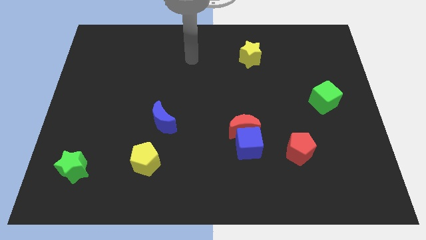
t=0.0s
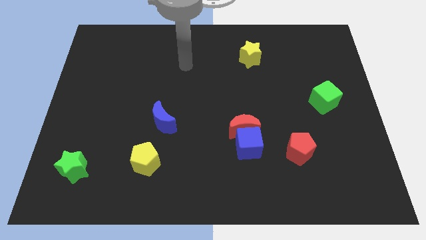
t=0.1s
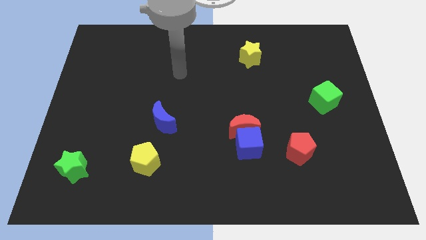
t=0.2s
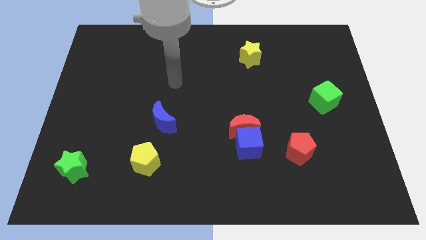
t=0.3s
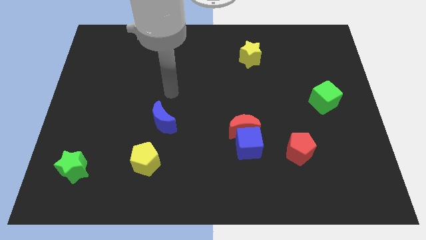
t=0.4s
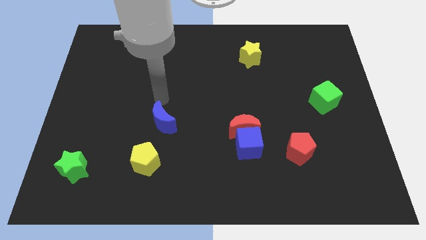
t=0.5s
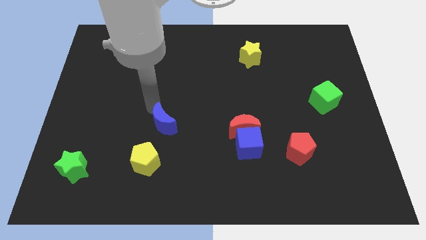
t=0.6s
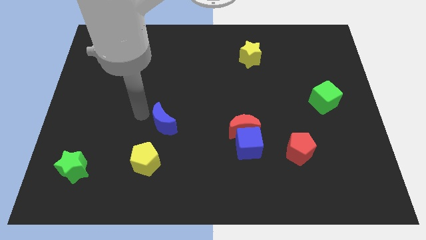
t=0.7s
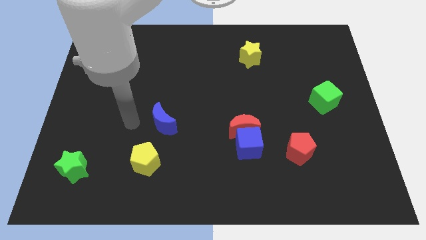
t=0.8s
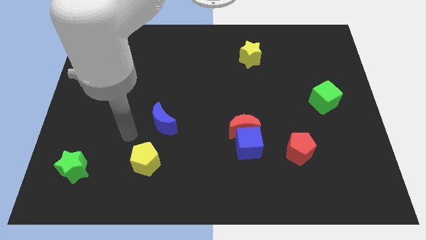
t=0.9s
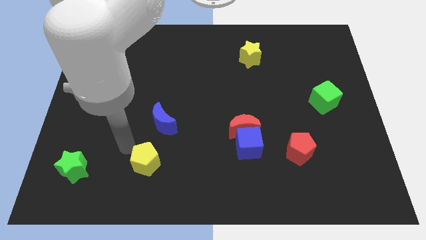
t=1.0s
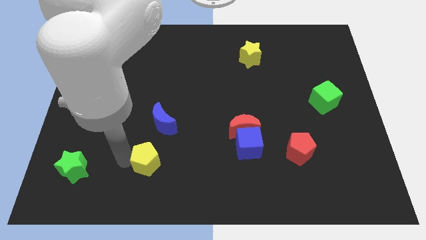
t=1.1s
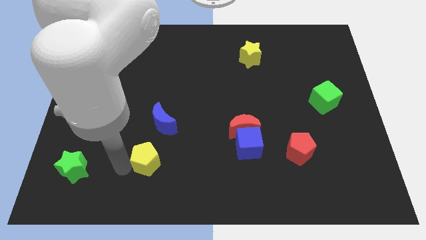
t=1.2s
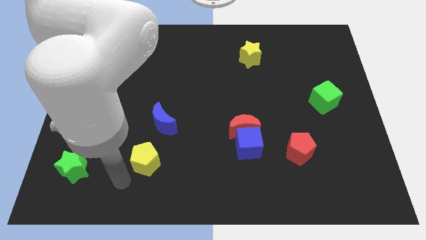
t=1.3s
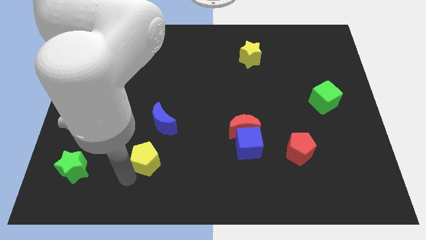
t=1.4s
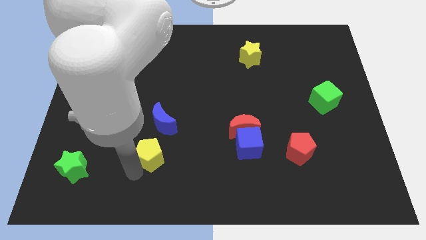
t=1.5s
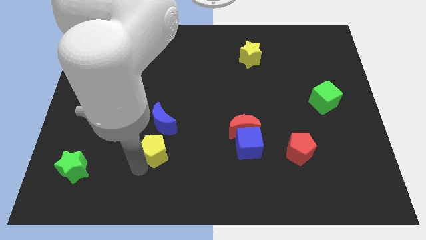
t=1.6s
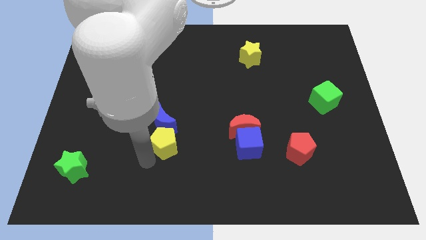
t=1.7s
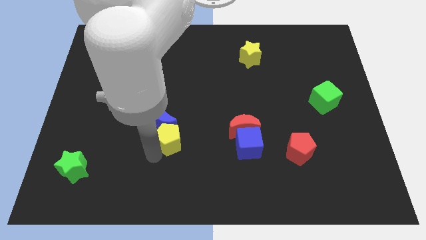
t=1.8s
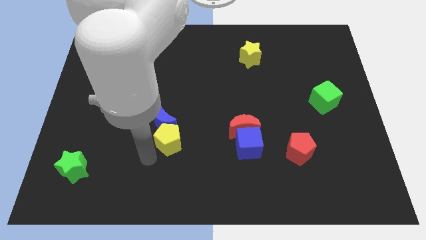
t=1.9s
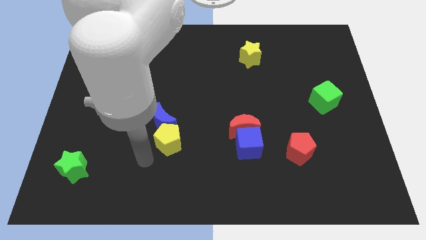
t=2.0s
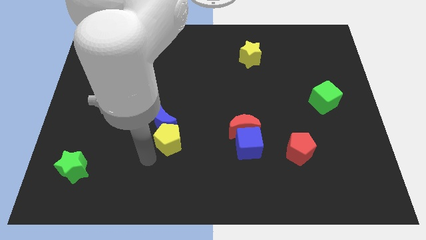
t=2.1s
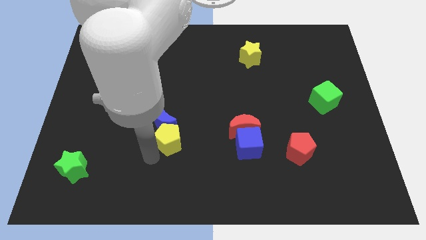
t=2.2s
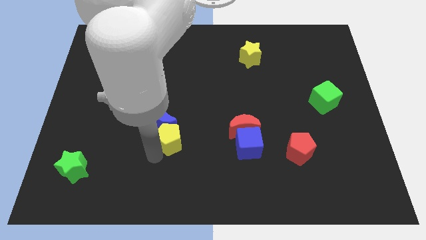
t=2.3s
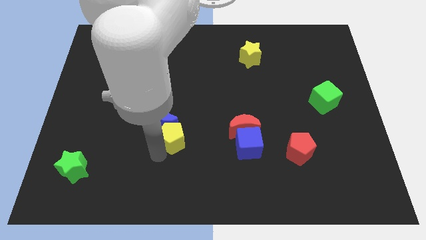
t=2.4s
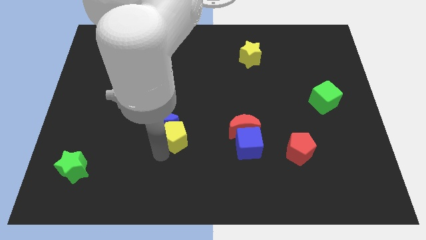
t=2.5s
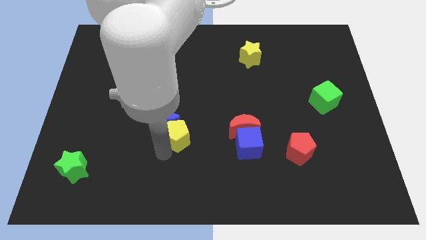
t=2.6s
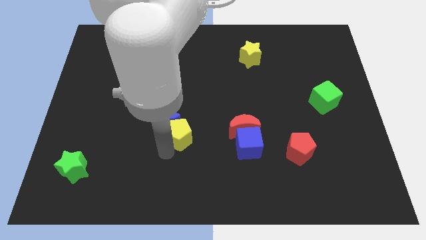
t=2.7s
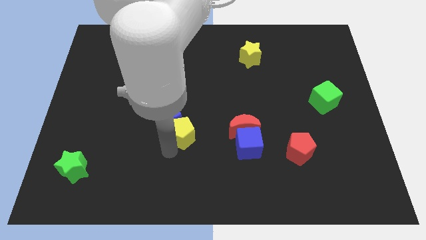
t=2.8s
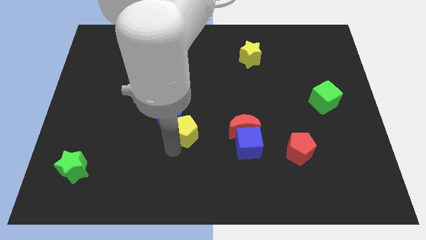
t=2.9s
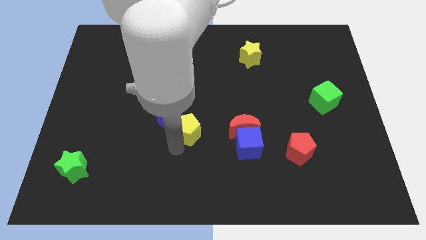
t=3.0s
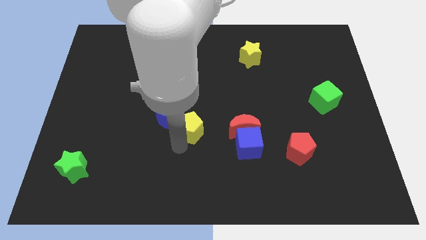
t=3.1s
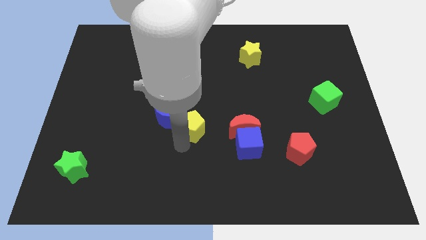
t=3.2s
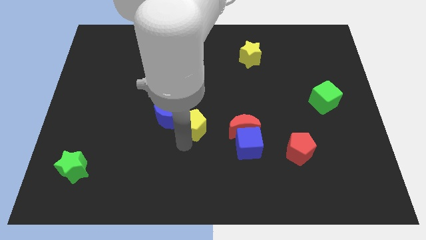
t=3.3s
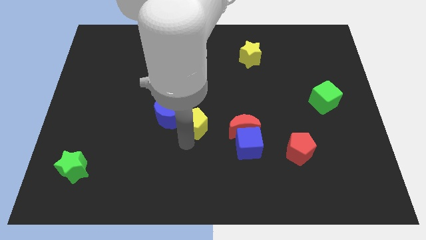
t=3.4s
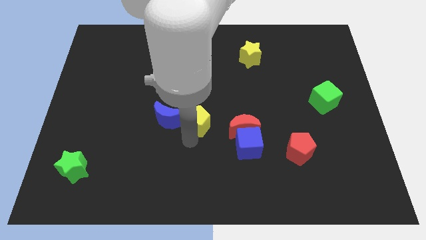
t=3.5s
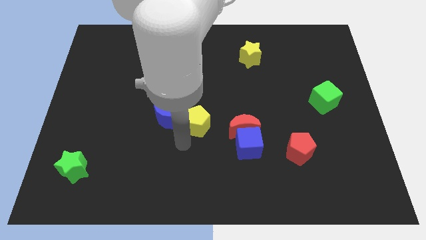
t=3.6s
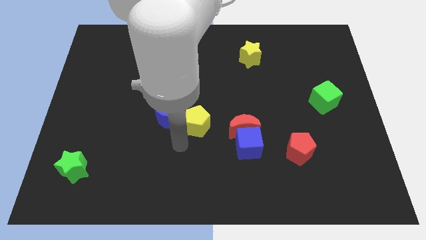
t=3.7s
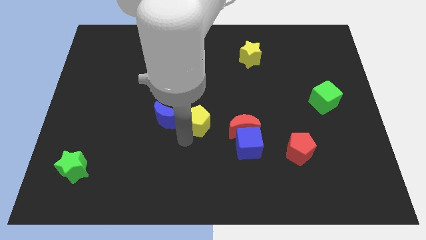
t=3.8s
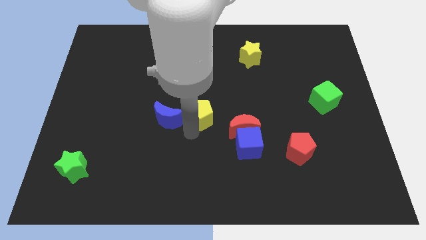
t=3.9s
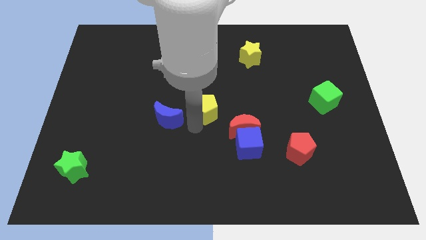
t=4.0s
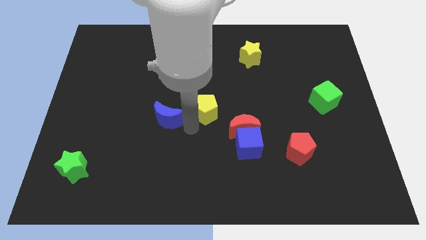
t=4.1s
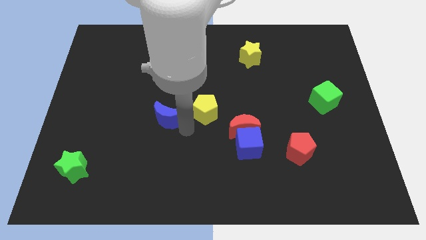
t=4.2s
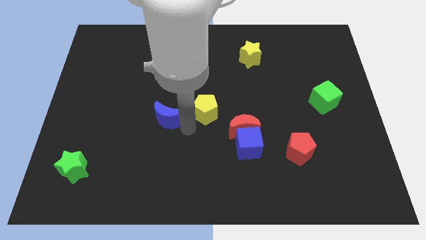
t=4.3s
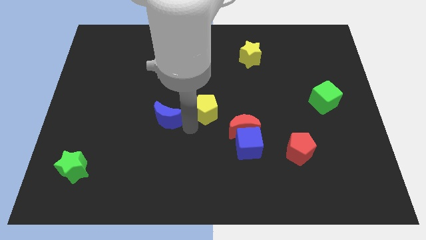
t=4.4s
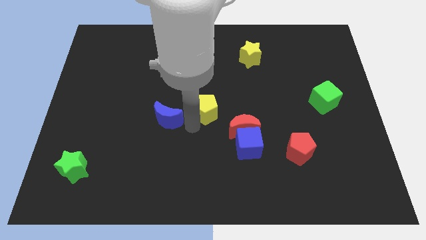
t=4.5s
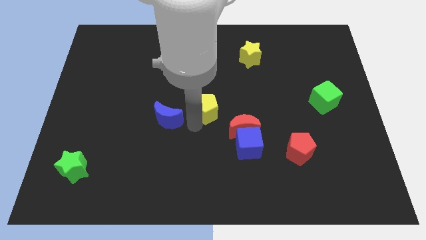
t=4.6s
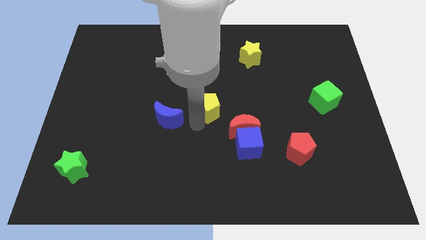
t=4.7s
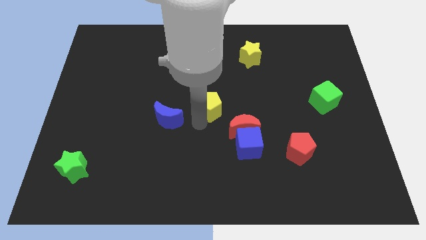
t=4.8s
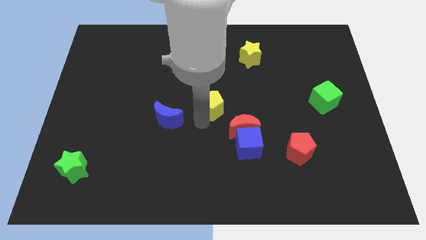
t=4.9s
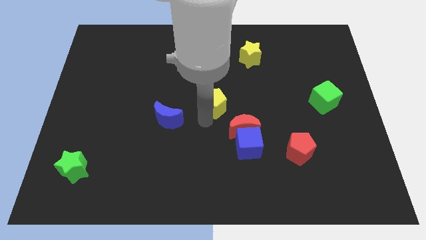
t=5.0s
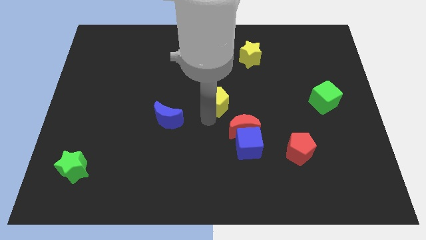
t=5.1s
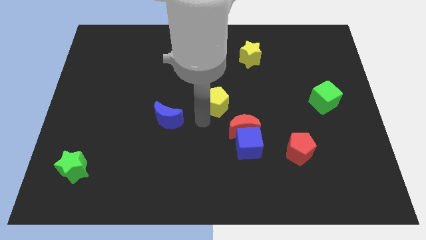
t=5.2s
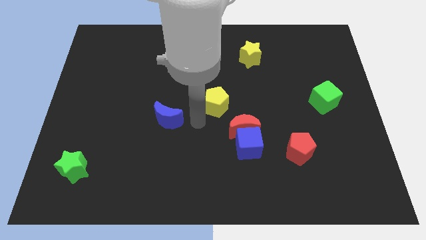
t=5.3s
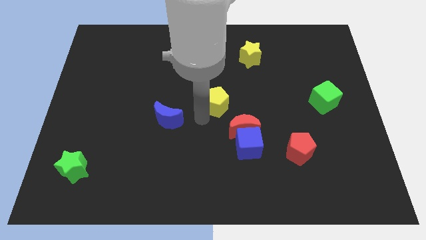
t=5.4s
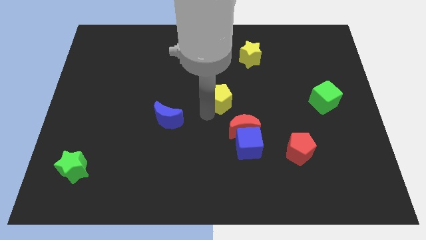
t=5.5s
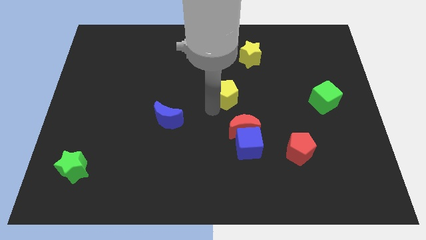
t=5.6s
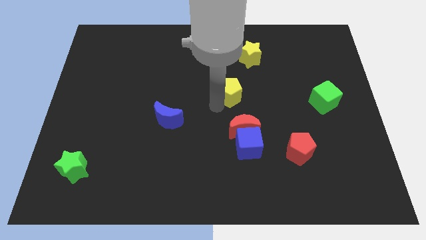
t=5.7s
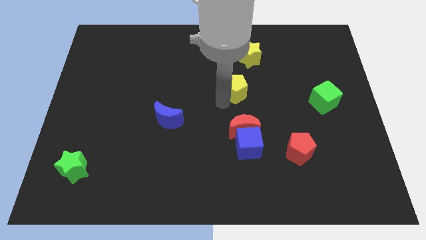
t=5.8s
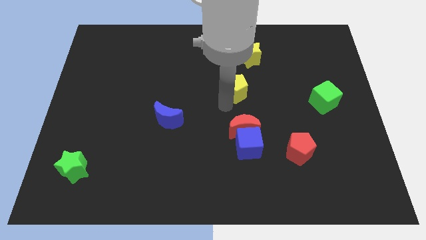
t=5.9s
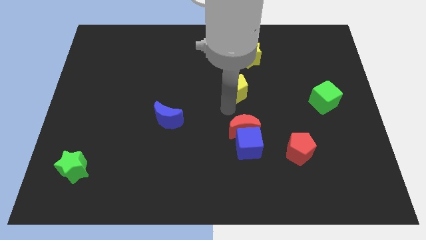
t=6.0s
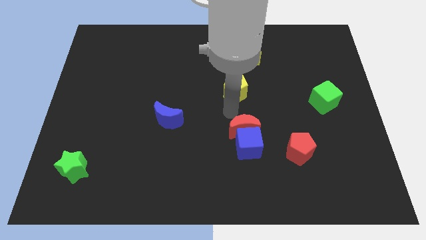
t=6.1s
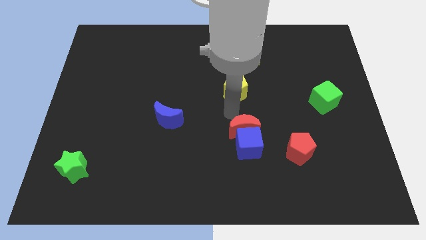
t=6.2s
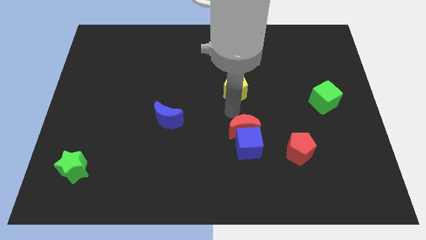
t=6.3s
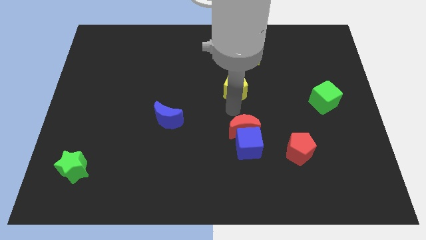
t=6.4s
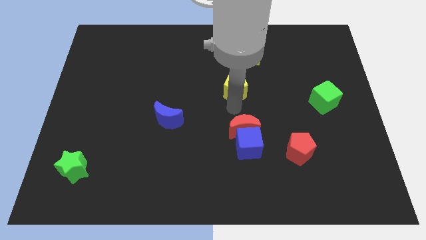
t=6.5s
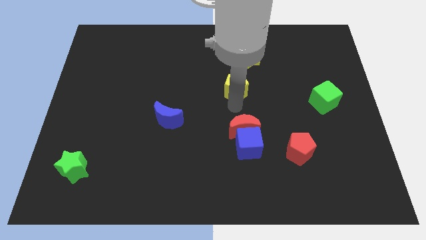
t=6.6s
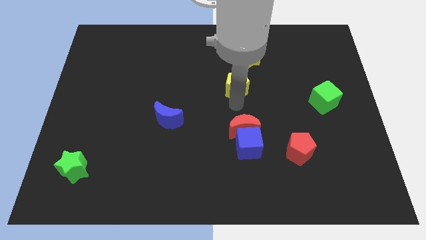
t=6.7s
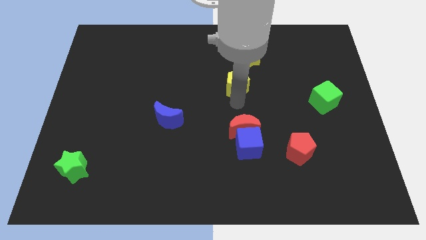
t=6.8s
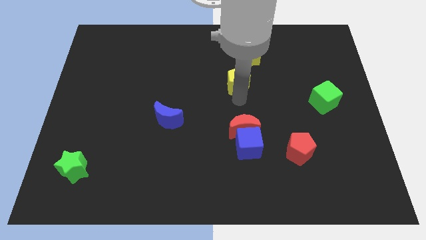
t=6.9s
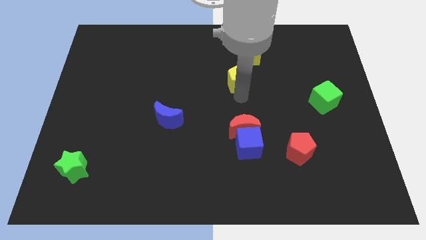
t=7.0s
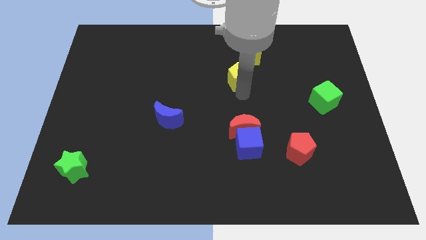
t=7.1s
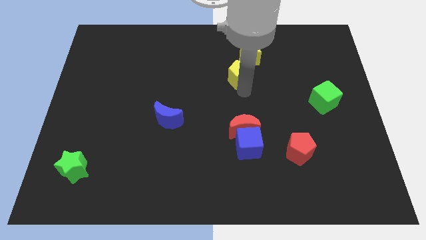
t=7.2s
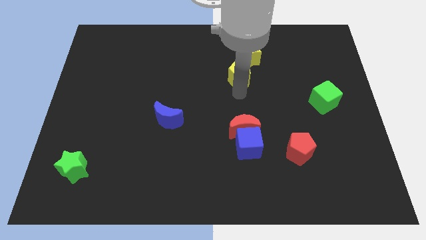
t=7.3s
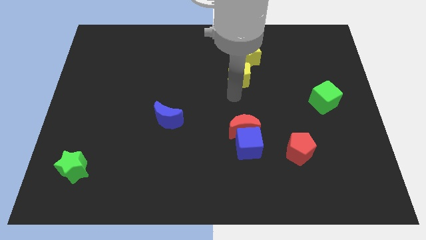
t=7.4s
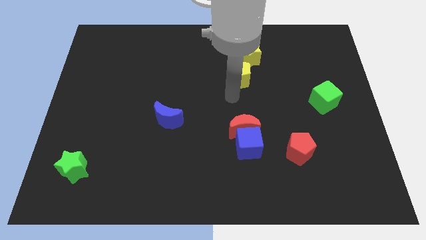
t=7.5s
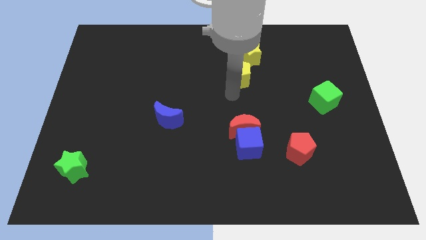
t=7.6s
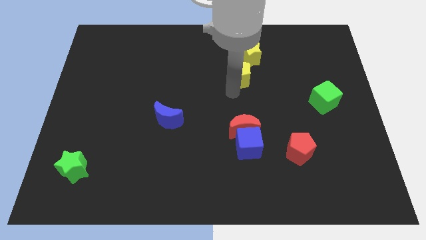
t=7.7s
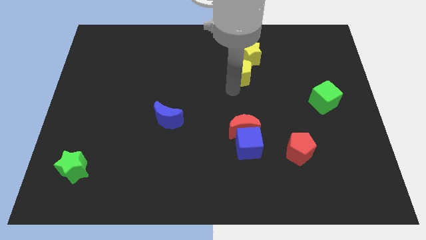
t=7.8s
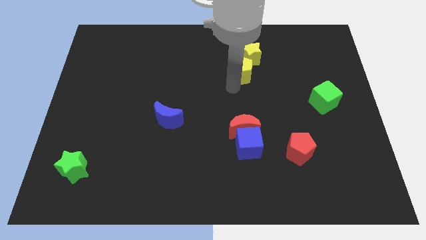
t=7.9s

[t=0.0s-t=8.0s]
put the yellow pentagon next to the yellow star
